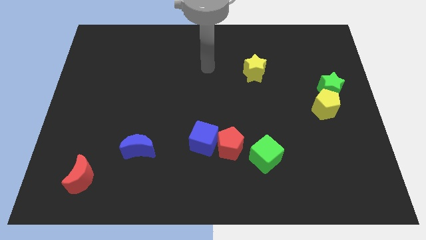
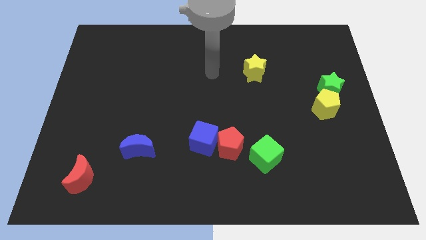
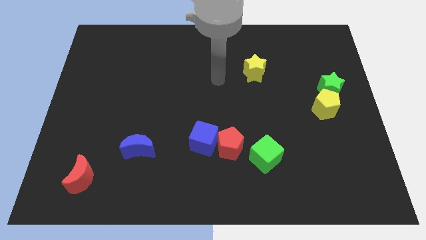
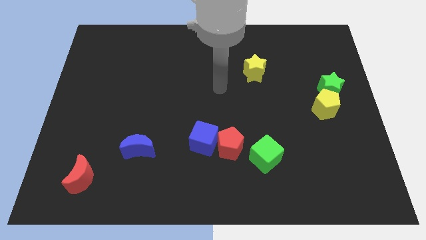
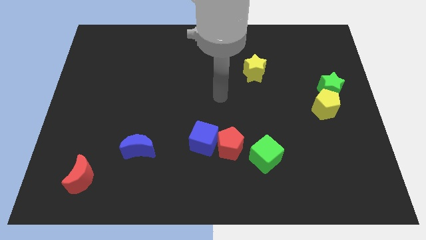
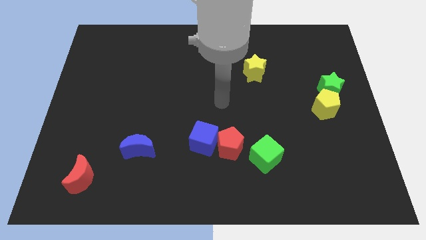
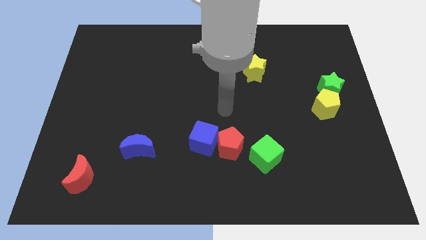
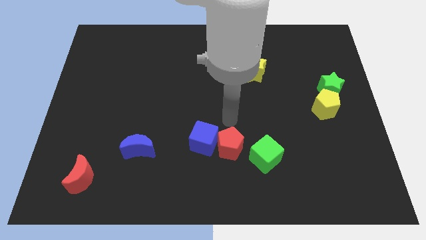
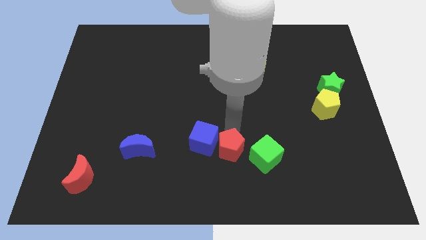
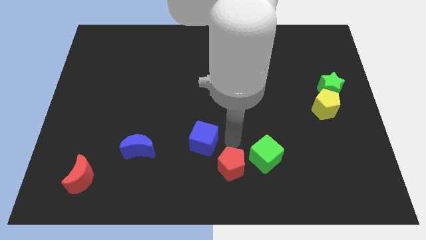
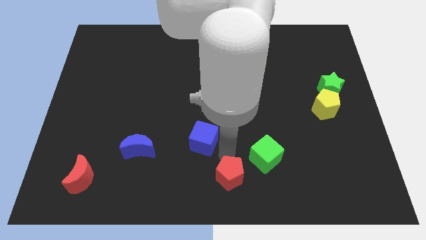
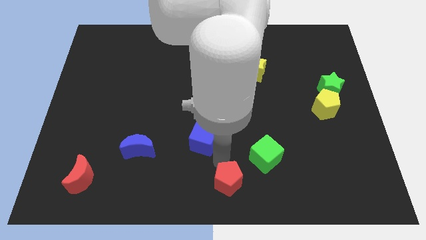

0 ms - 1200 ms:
pull the blue cube apart from the red pentagon

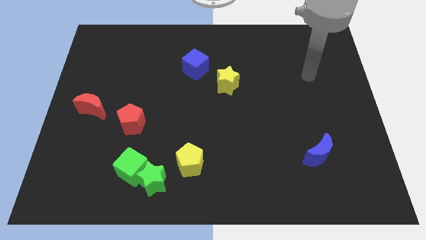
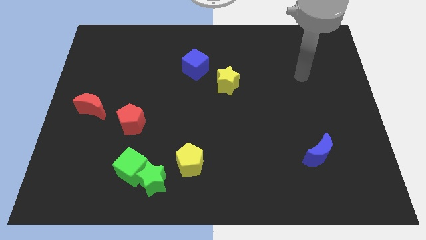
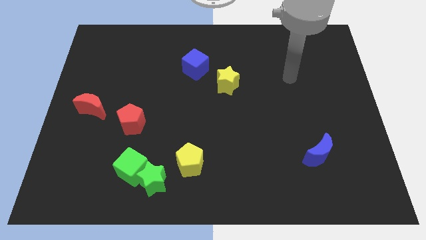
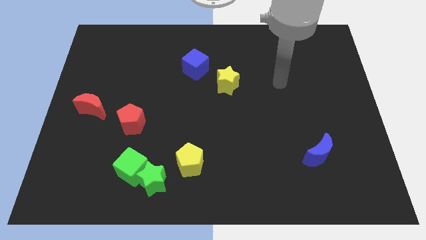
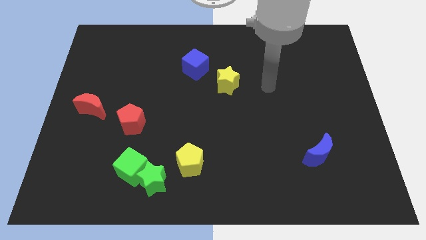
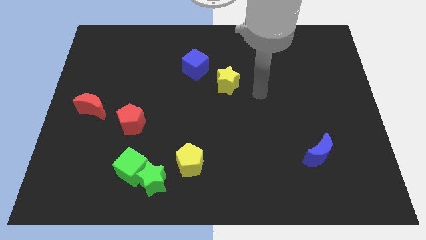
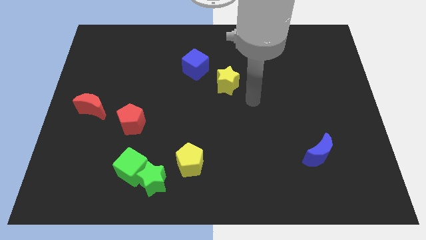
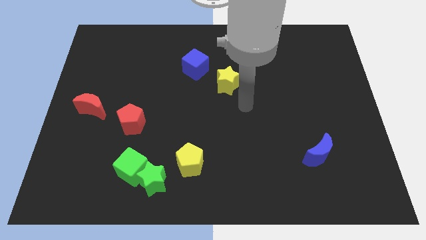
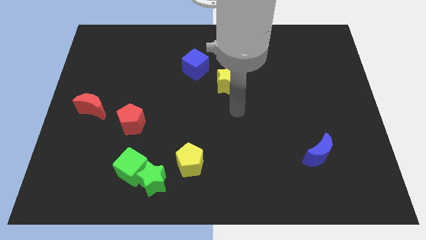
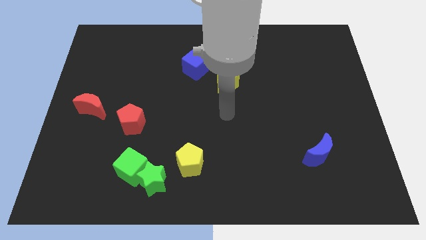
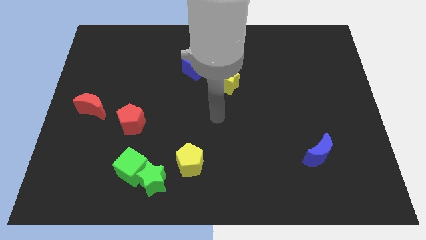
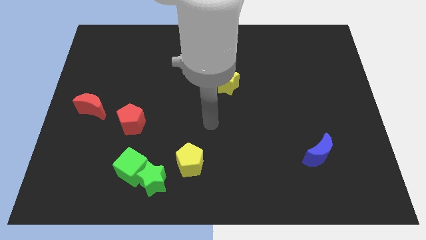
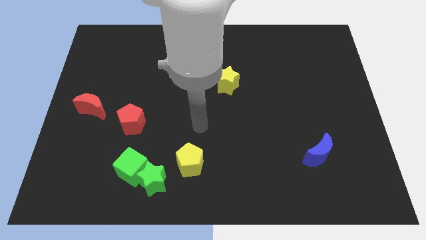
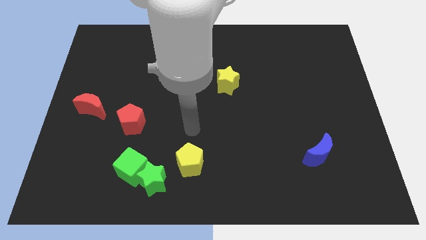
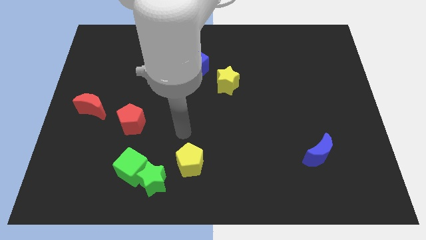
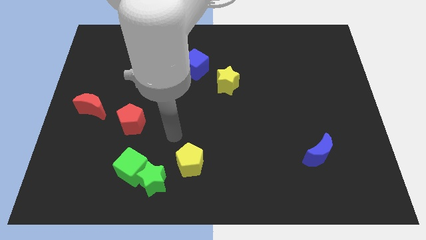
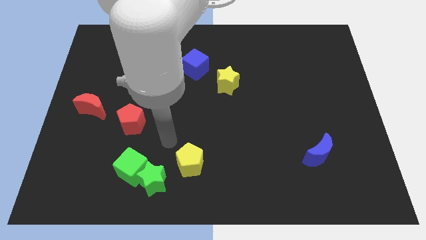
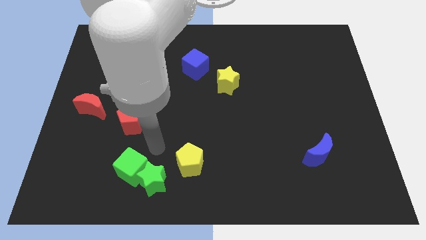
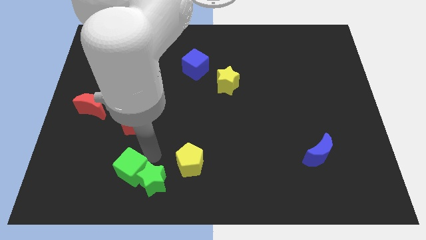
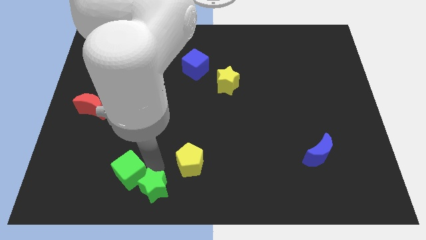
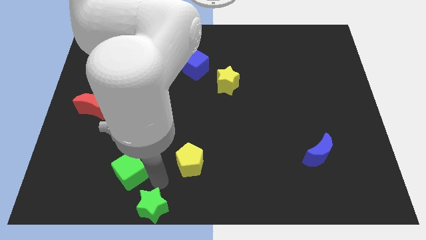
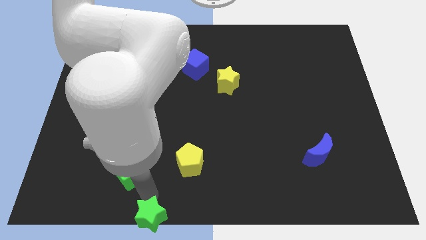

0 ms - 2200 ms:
pull the green cube apart from the green star

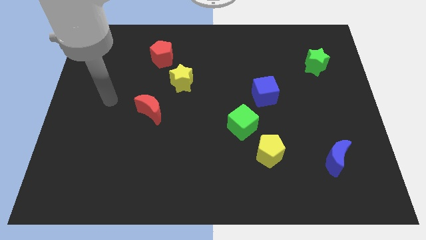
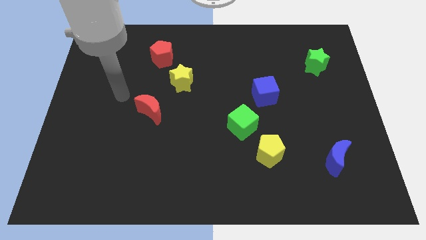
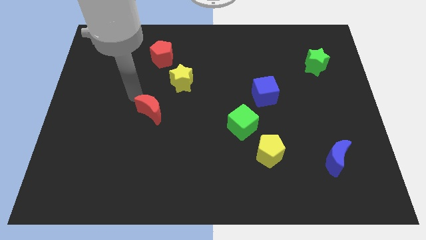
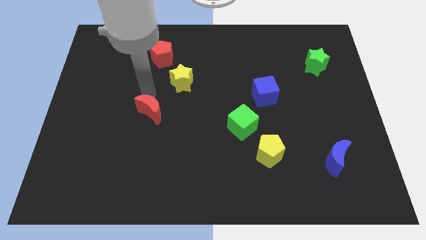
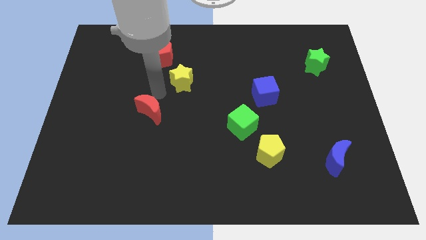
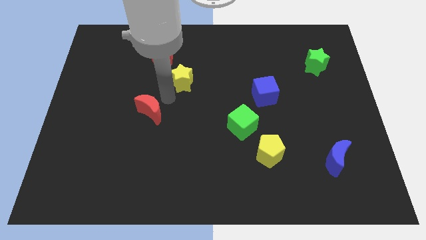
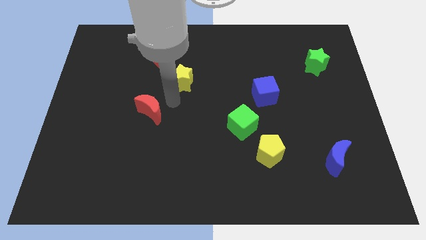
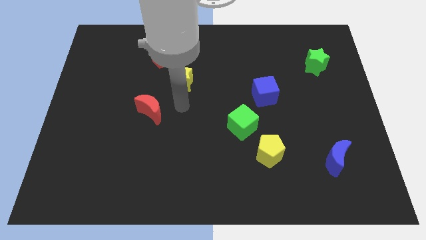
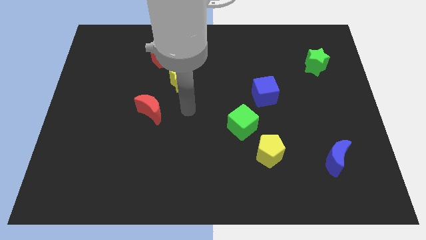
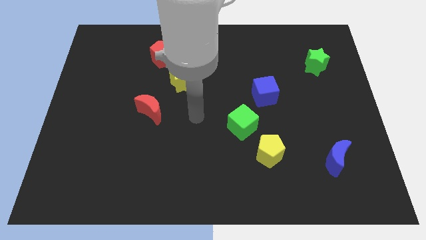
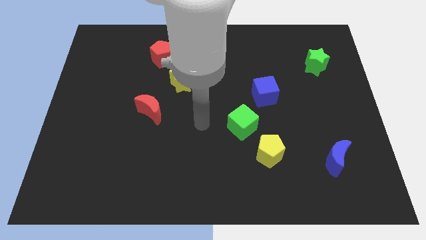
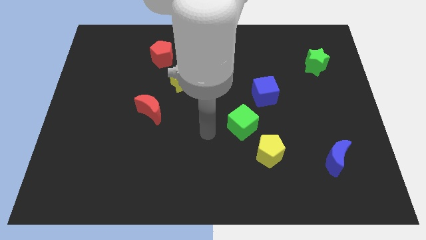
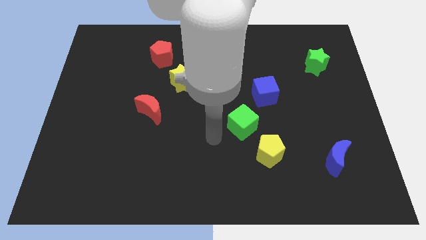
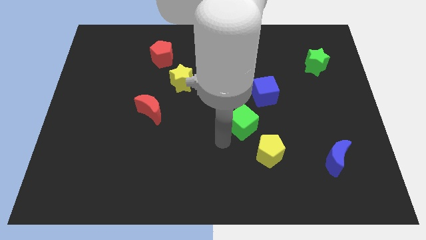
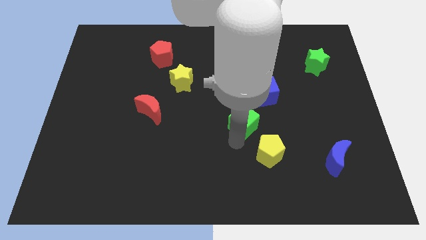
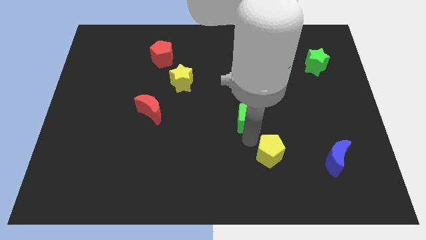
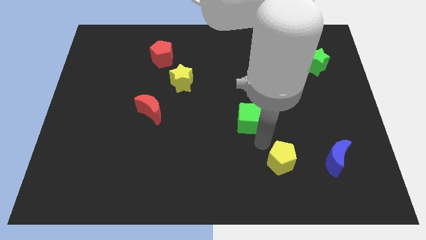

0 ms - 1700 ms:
separate the green cube from the yellow pentagon

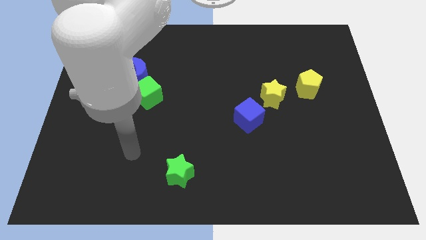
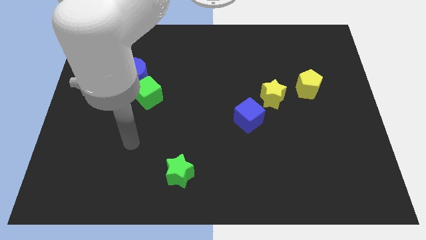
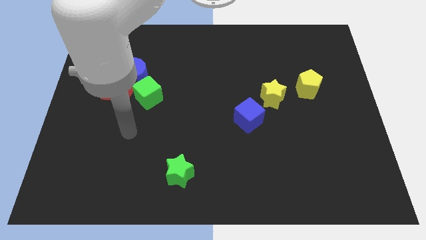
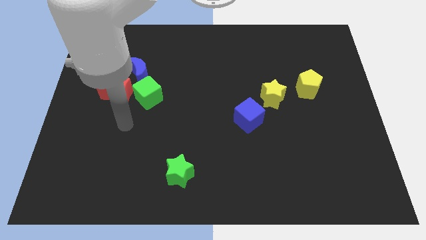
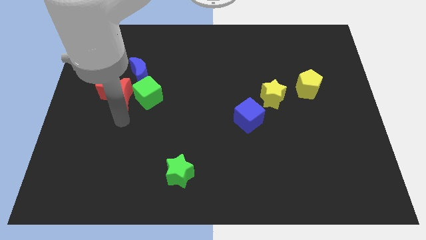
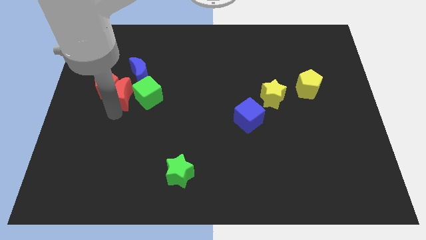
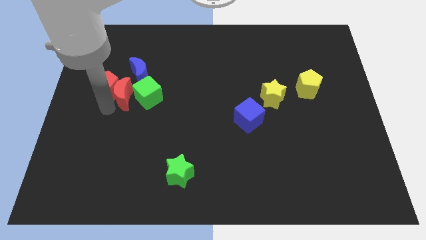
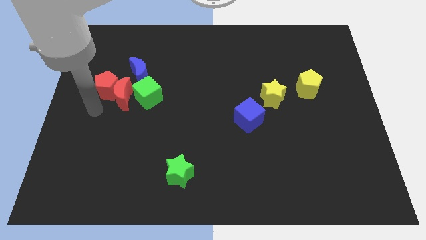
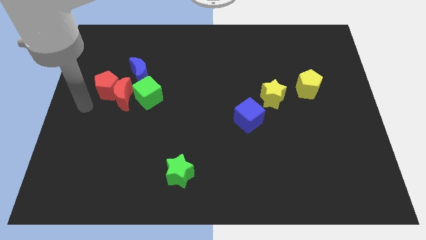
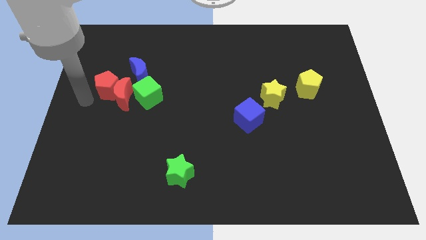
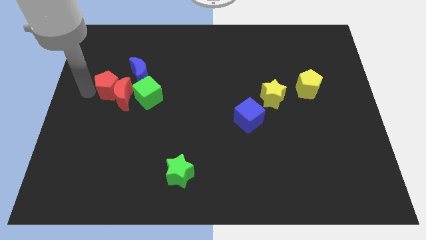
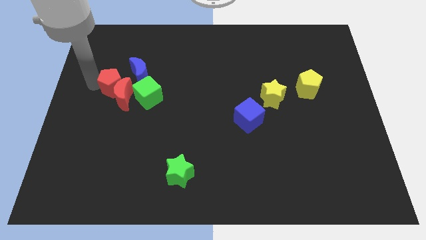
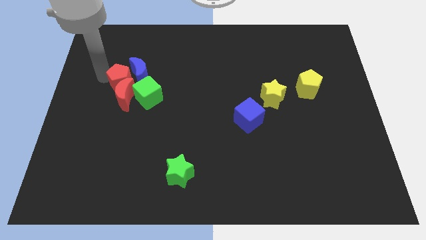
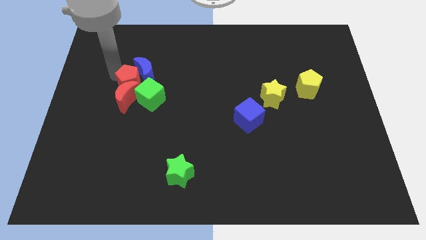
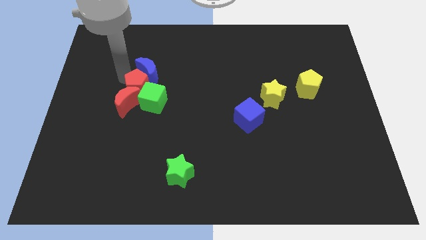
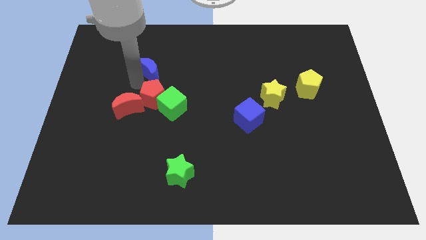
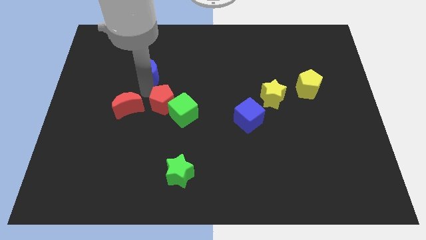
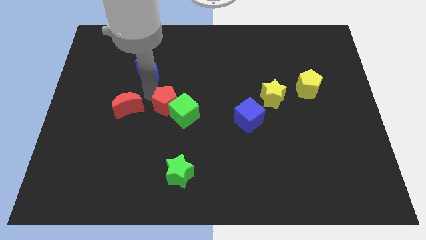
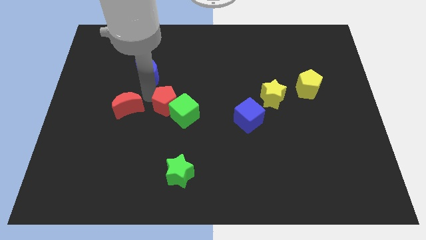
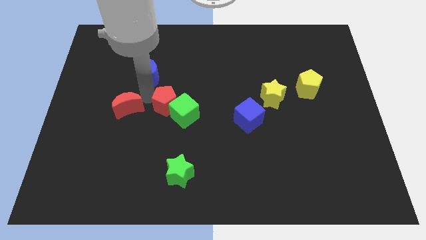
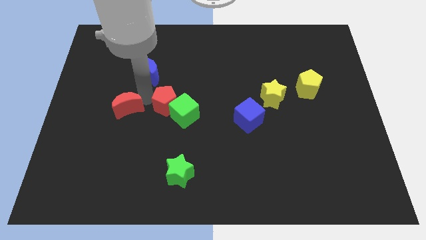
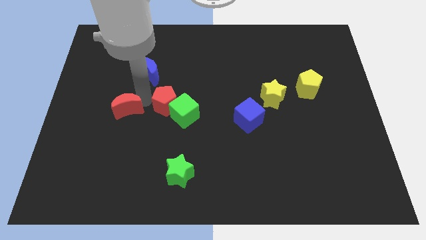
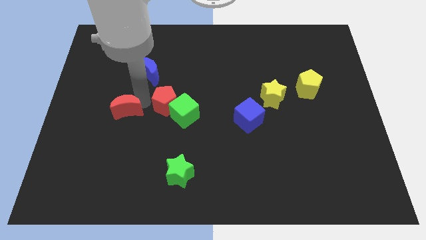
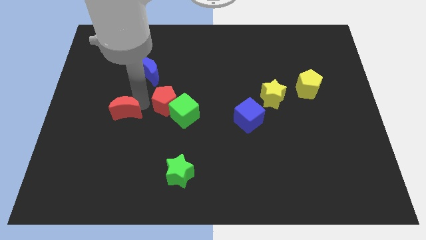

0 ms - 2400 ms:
pull the red moon apart from the red pentagon, green cube, and blue moon

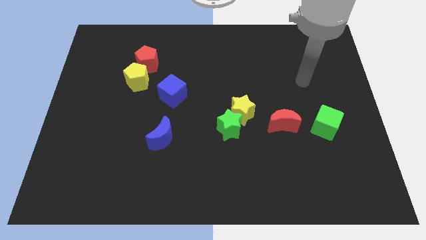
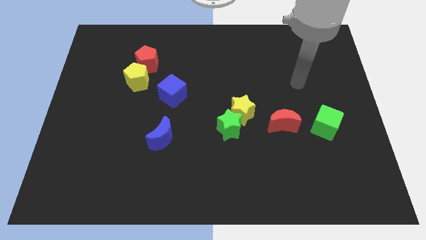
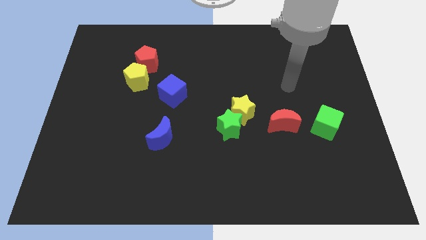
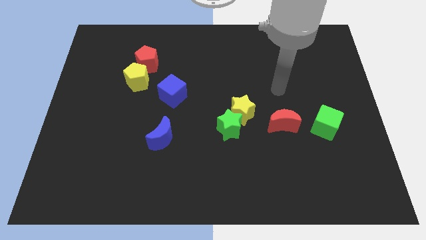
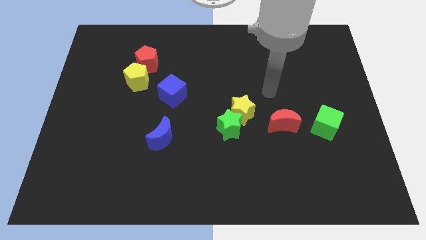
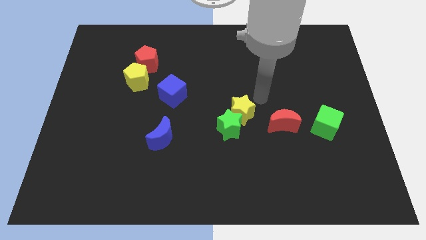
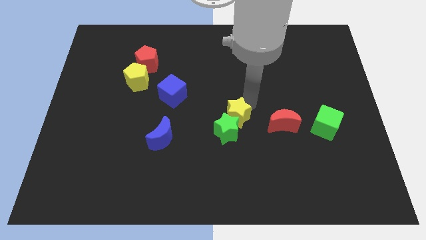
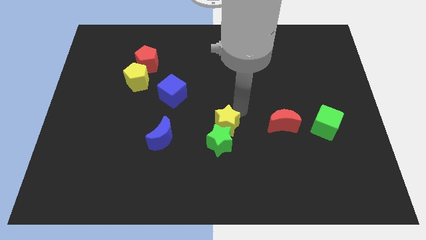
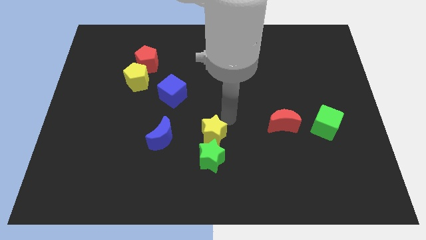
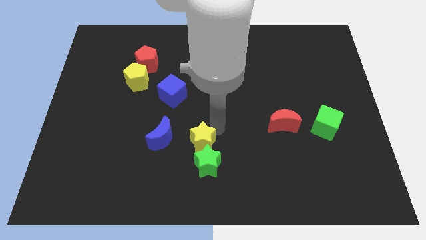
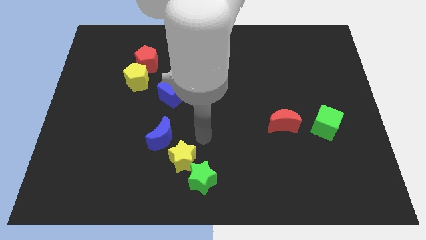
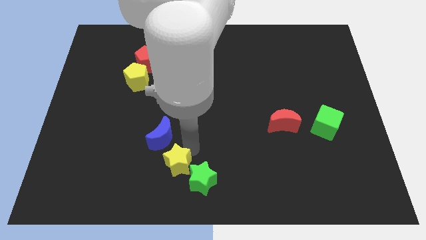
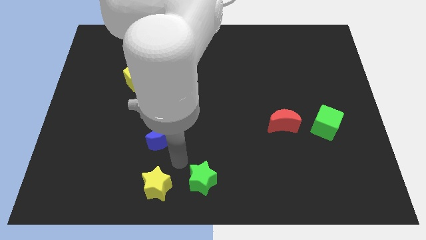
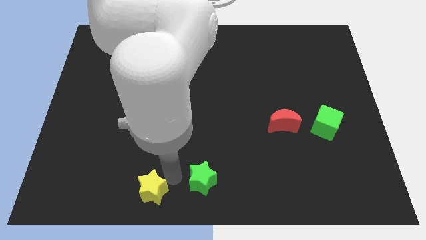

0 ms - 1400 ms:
separate the green star from the yellow star

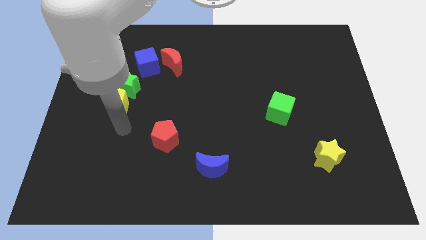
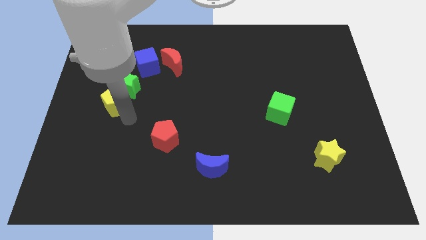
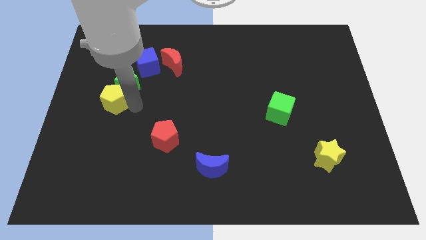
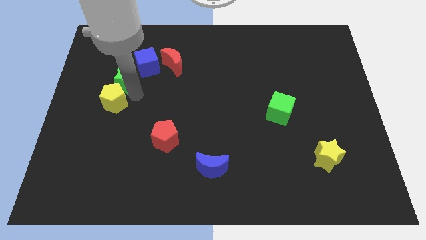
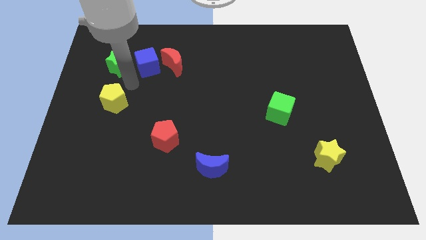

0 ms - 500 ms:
move the yellow pentagon away from the green star

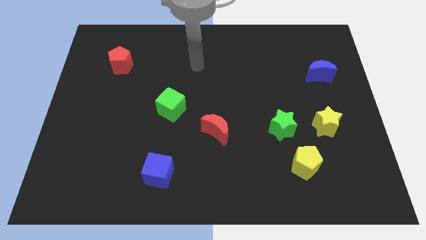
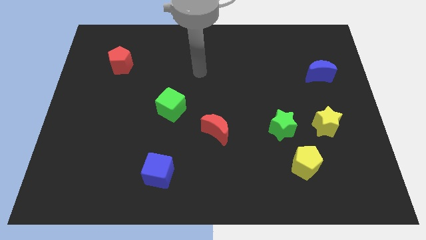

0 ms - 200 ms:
move the yellow star away from the green star
